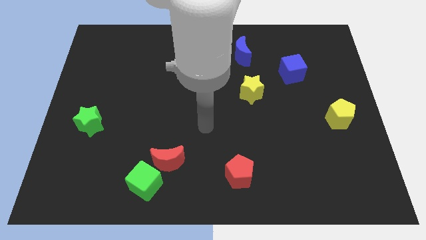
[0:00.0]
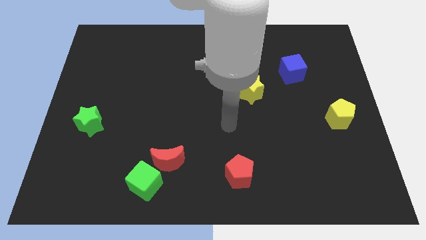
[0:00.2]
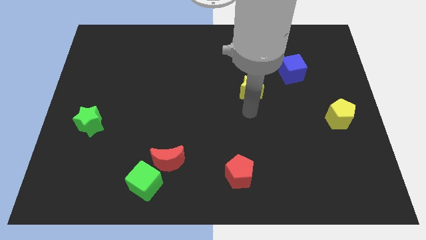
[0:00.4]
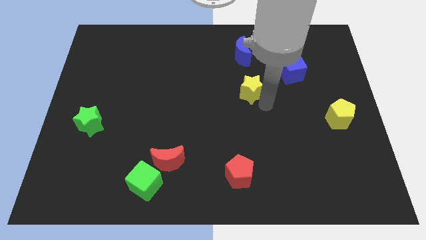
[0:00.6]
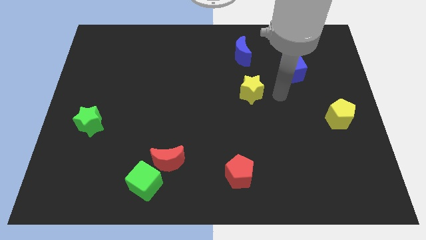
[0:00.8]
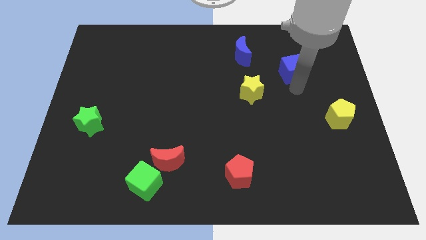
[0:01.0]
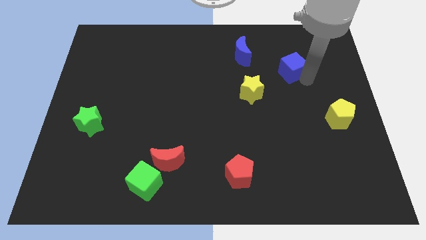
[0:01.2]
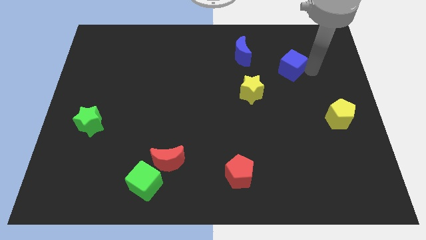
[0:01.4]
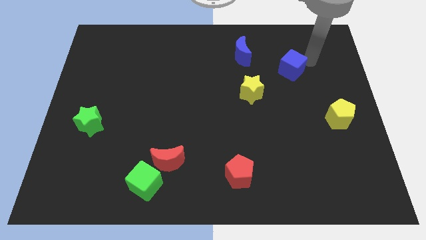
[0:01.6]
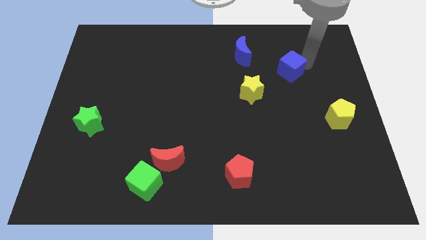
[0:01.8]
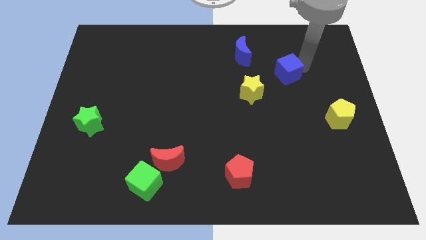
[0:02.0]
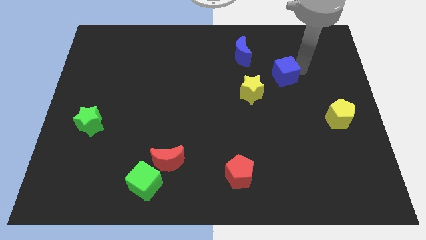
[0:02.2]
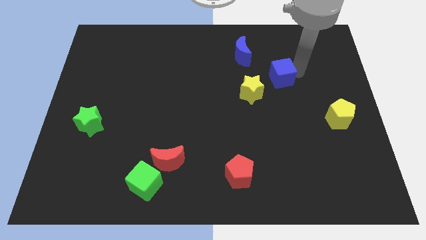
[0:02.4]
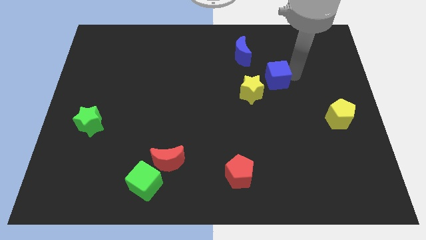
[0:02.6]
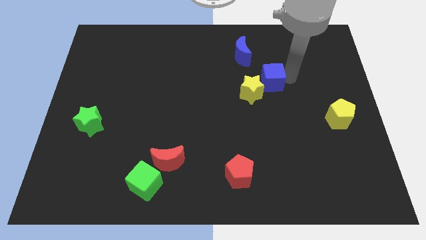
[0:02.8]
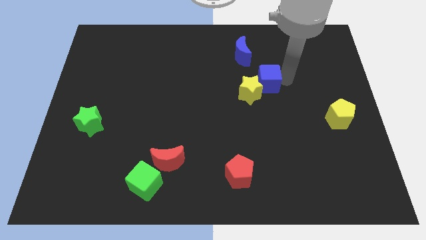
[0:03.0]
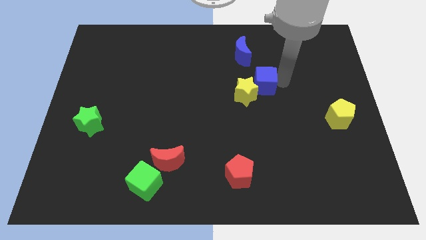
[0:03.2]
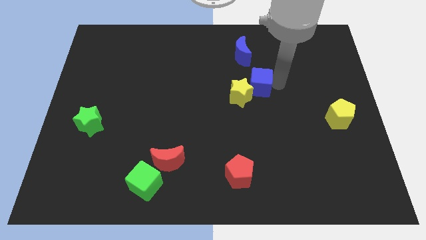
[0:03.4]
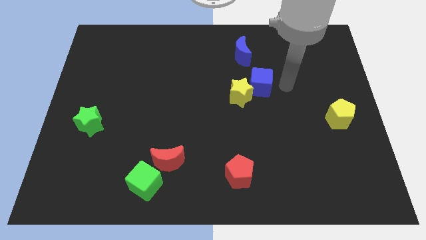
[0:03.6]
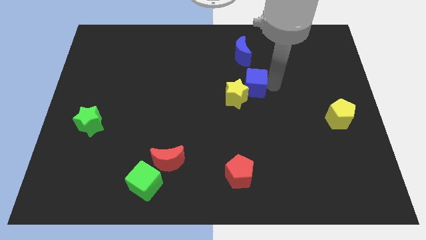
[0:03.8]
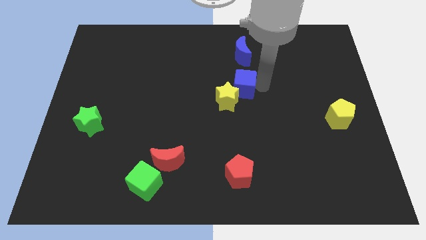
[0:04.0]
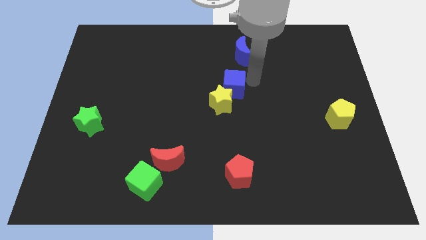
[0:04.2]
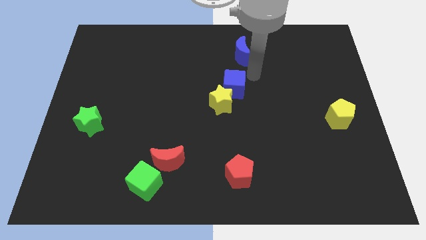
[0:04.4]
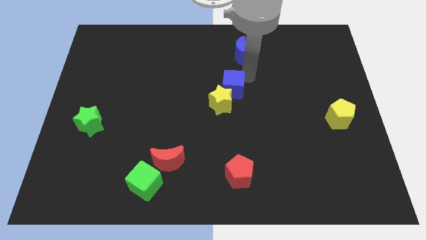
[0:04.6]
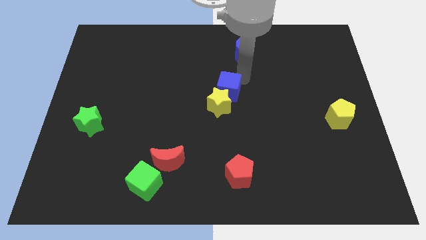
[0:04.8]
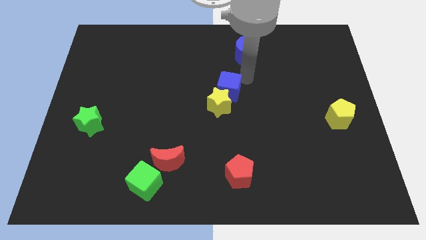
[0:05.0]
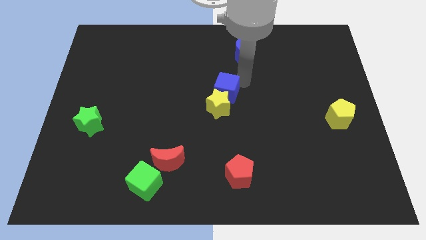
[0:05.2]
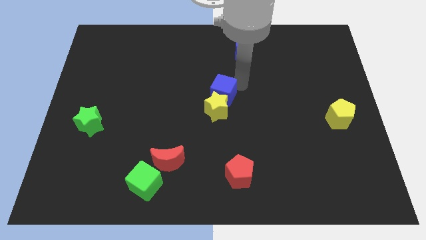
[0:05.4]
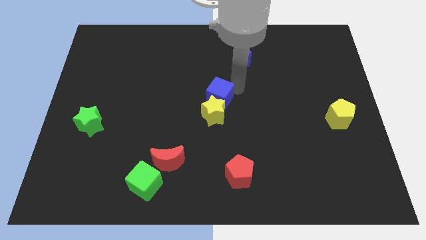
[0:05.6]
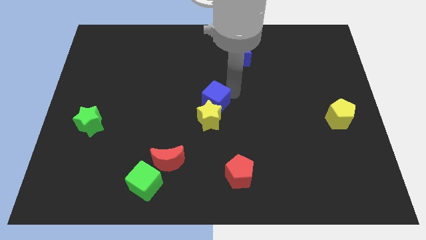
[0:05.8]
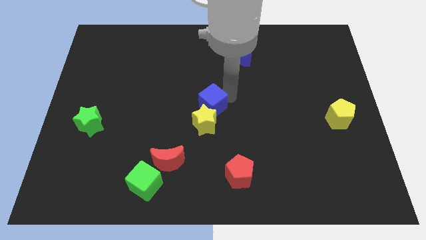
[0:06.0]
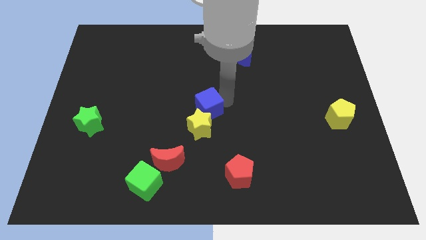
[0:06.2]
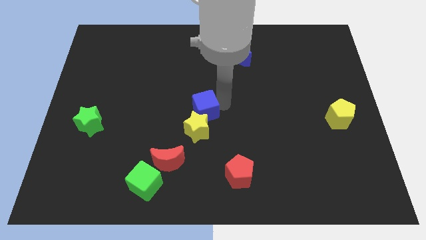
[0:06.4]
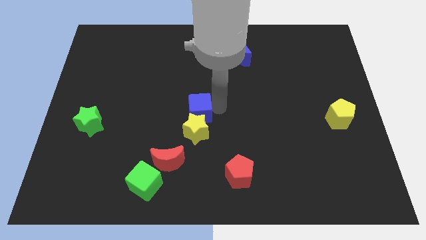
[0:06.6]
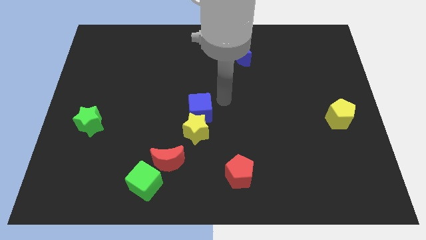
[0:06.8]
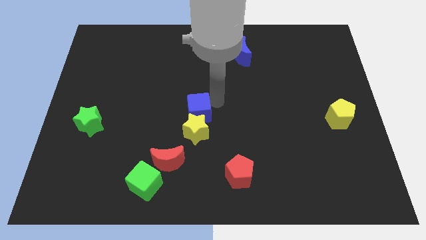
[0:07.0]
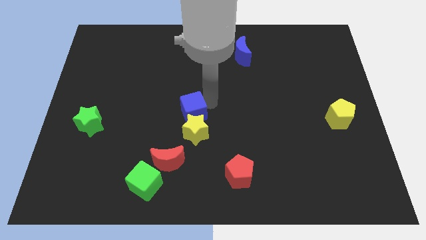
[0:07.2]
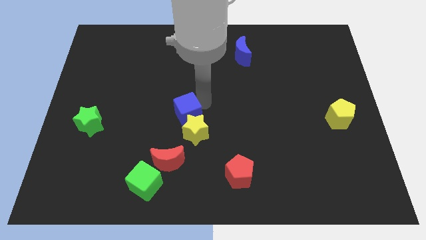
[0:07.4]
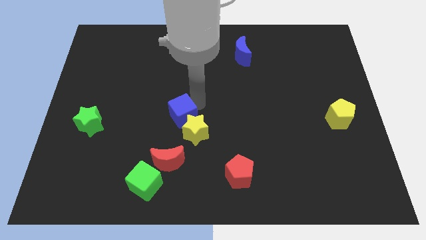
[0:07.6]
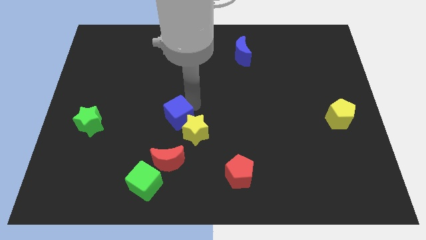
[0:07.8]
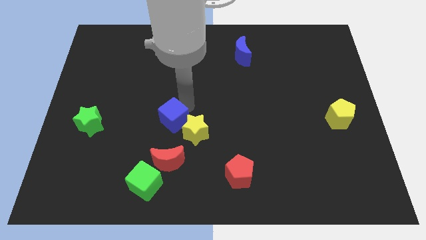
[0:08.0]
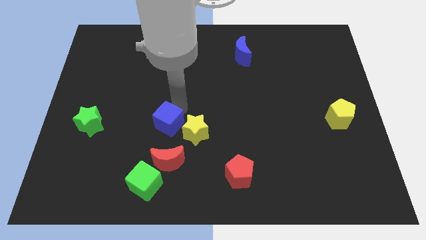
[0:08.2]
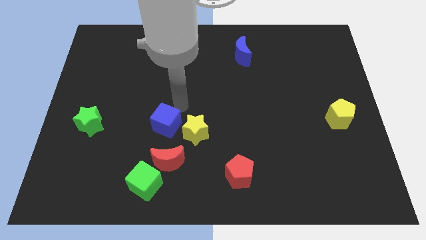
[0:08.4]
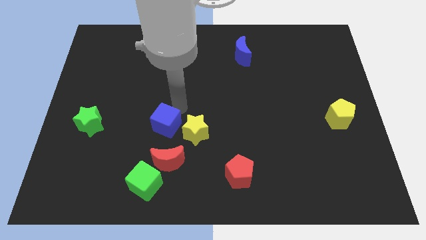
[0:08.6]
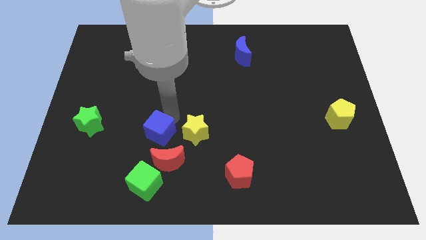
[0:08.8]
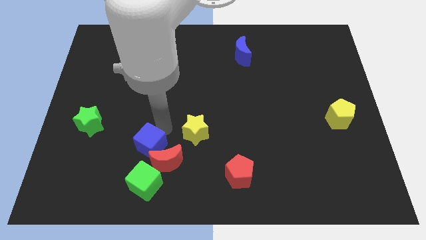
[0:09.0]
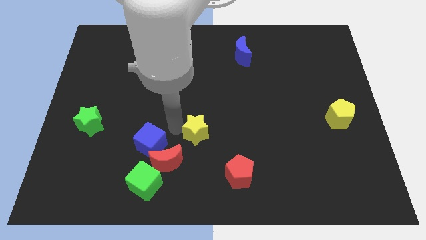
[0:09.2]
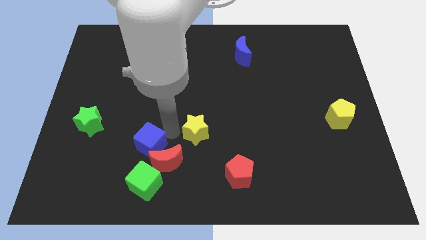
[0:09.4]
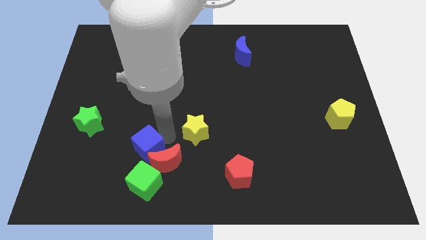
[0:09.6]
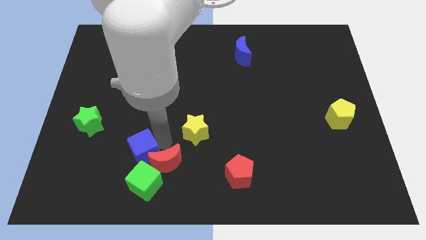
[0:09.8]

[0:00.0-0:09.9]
push the blue cube to the top left of the green cube
